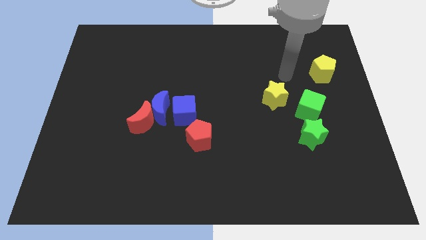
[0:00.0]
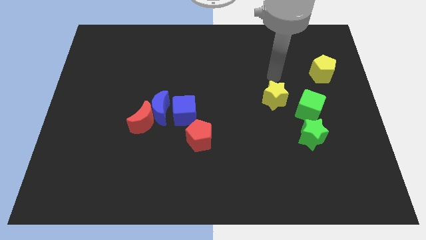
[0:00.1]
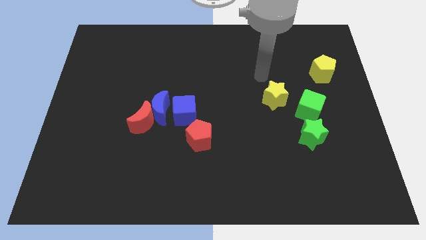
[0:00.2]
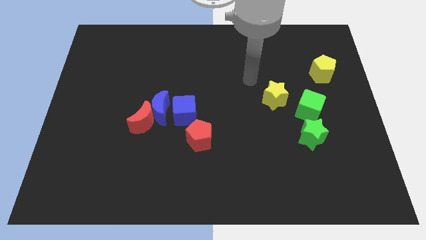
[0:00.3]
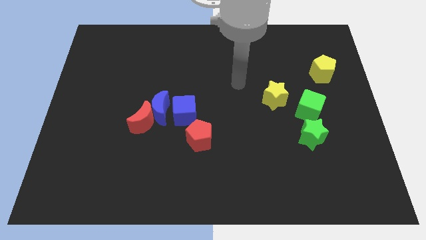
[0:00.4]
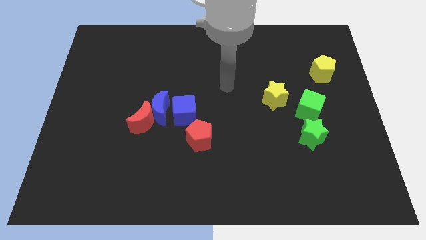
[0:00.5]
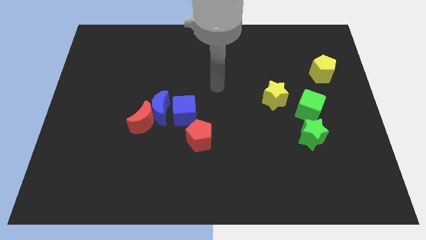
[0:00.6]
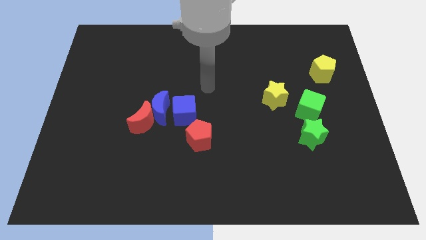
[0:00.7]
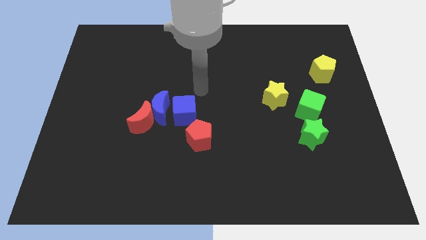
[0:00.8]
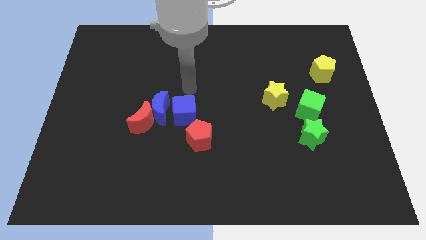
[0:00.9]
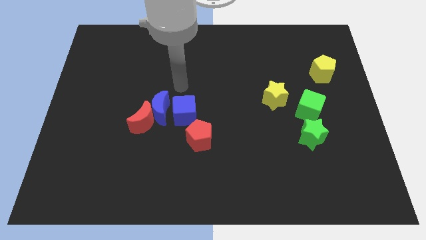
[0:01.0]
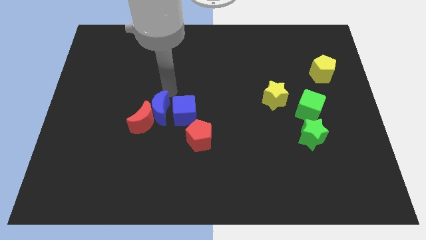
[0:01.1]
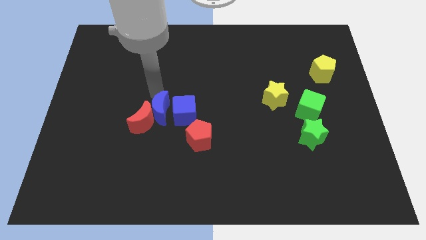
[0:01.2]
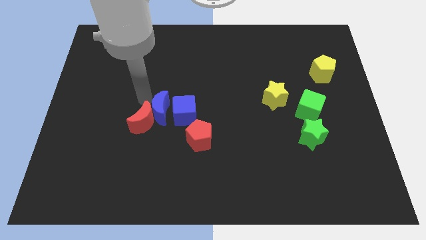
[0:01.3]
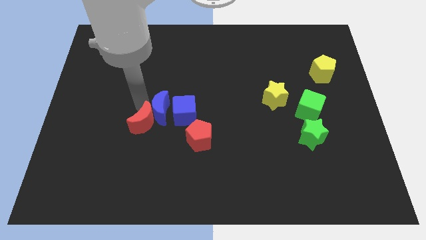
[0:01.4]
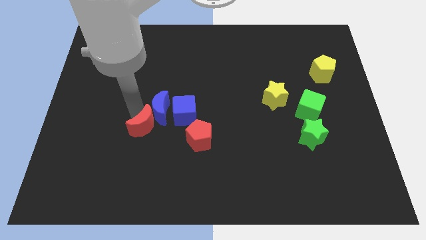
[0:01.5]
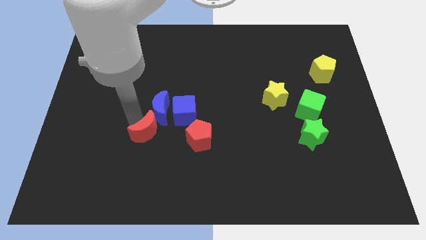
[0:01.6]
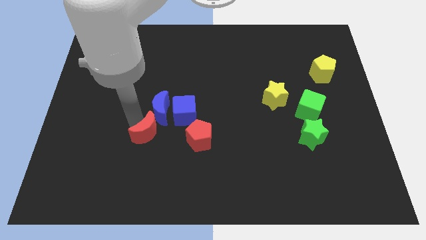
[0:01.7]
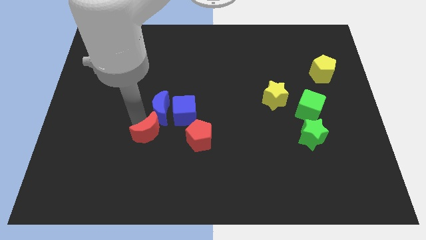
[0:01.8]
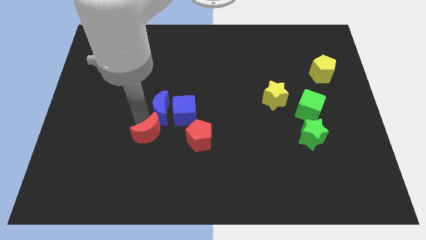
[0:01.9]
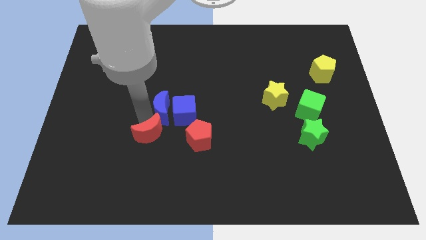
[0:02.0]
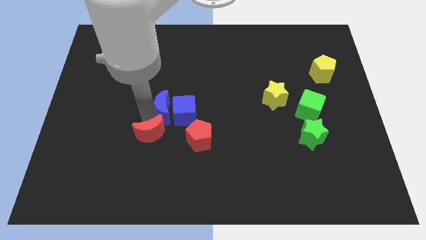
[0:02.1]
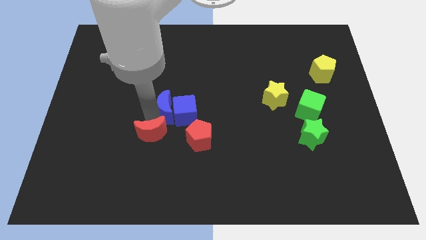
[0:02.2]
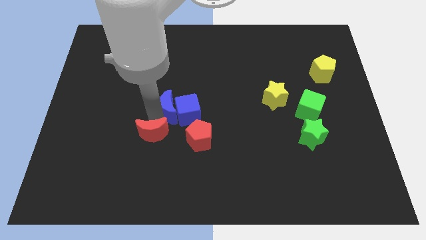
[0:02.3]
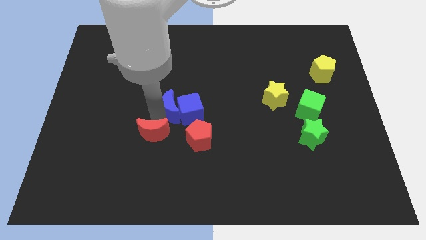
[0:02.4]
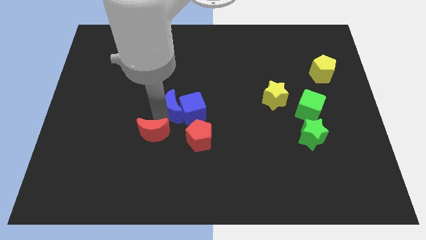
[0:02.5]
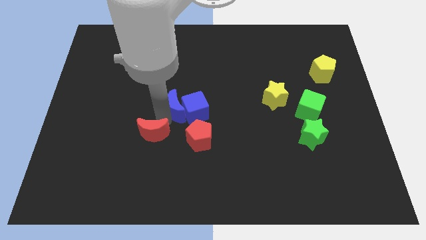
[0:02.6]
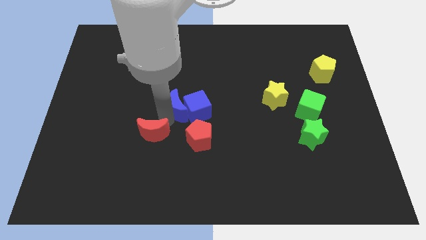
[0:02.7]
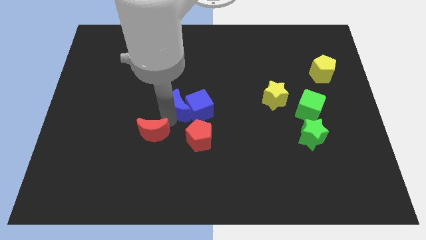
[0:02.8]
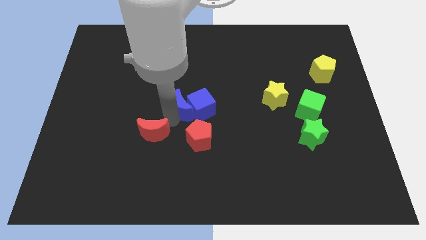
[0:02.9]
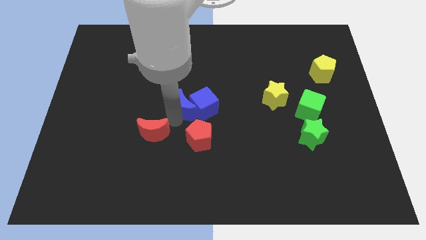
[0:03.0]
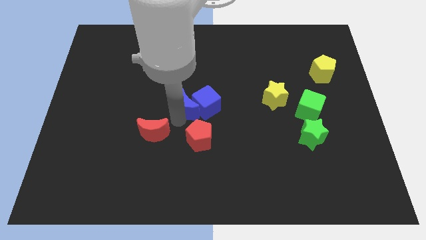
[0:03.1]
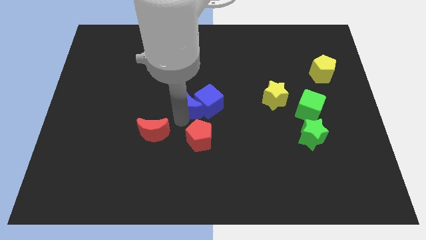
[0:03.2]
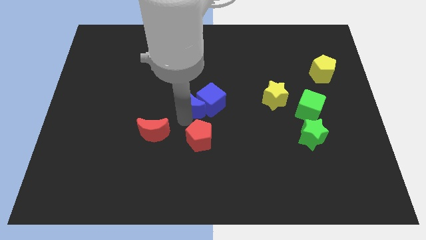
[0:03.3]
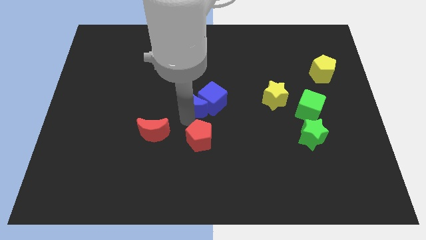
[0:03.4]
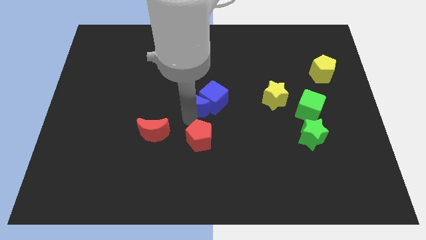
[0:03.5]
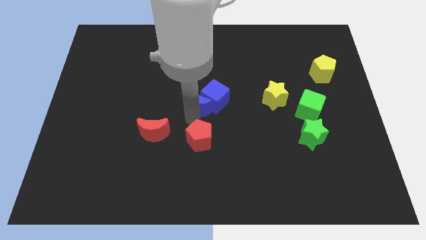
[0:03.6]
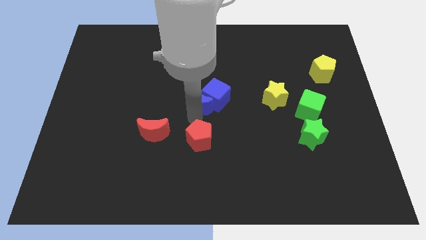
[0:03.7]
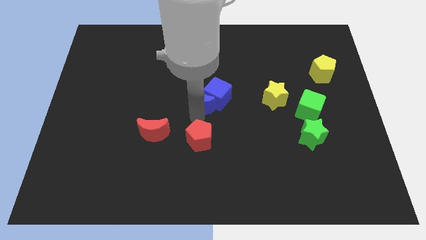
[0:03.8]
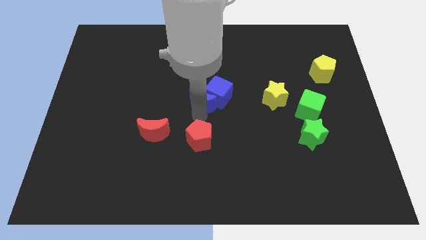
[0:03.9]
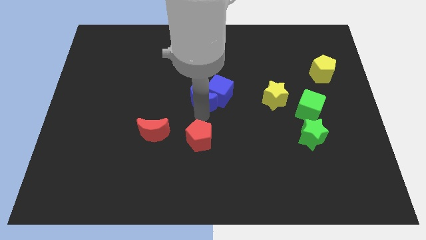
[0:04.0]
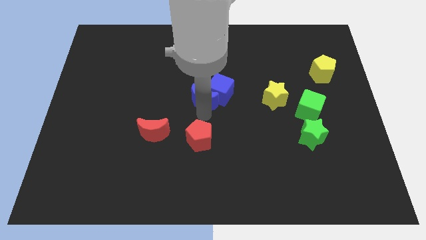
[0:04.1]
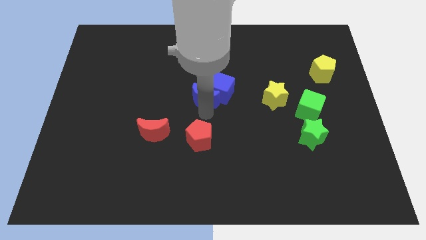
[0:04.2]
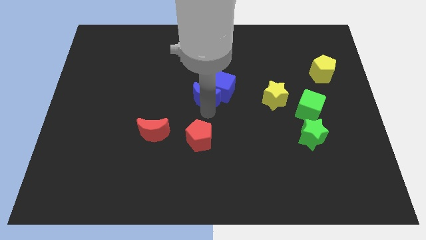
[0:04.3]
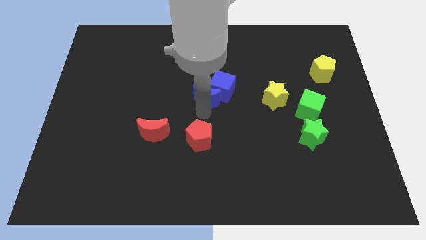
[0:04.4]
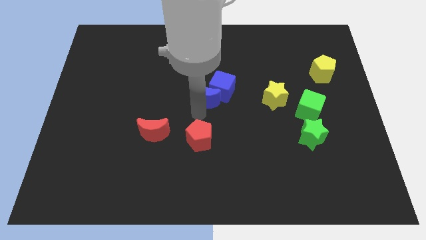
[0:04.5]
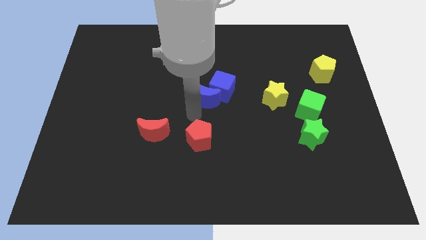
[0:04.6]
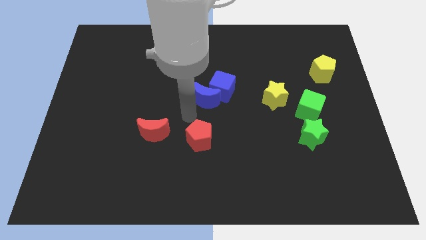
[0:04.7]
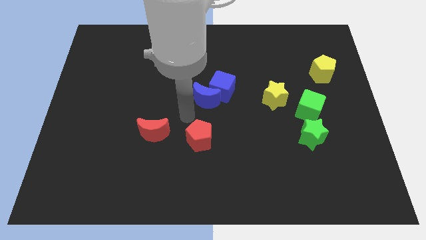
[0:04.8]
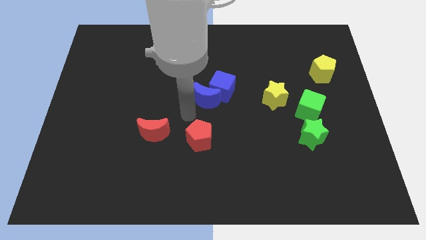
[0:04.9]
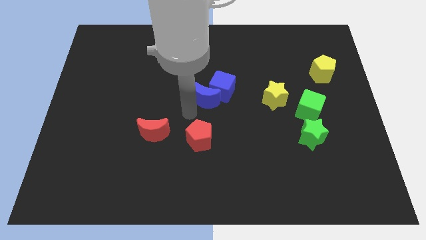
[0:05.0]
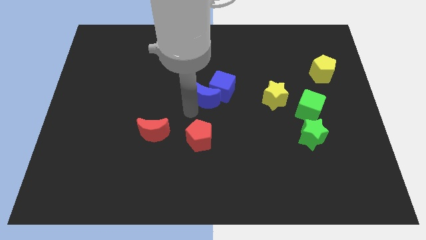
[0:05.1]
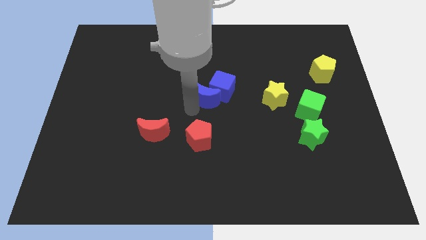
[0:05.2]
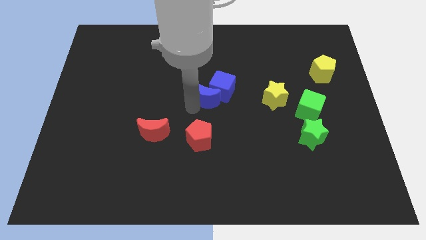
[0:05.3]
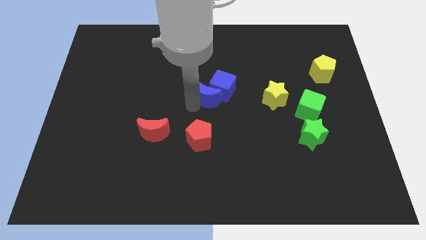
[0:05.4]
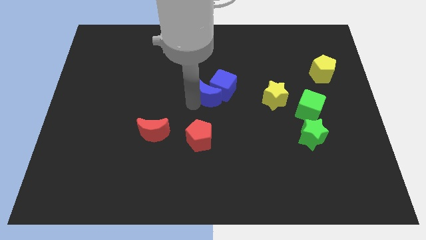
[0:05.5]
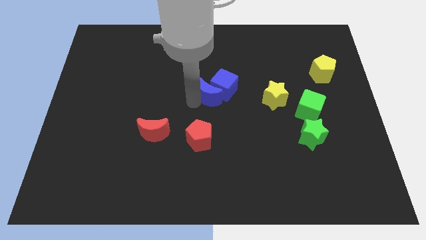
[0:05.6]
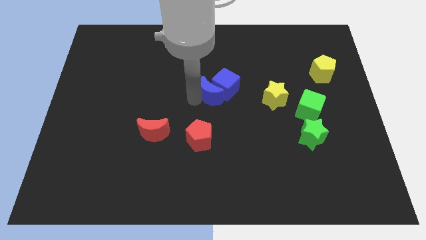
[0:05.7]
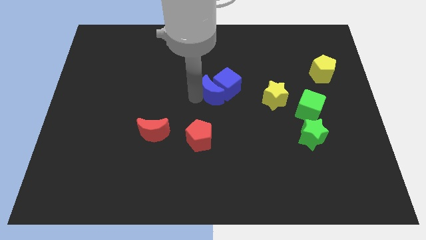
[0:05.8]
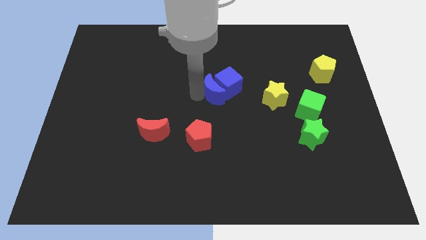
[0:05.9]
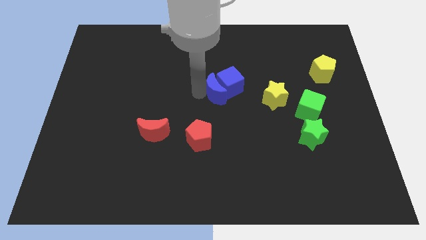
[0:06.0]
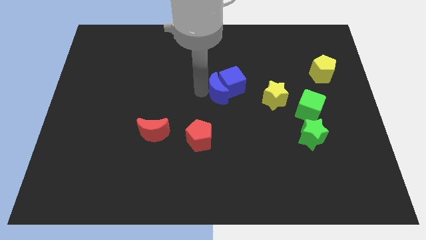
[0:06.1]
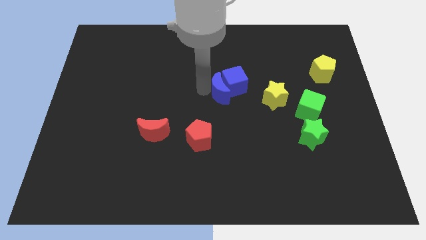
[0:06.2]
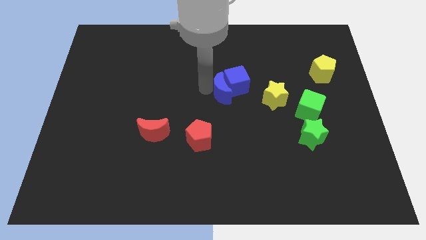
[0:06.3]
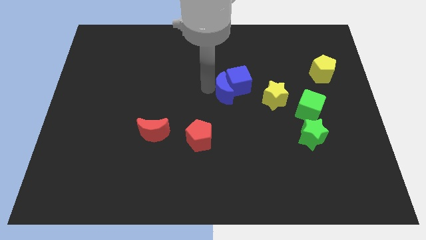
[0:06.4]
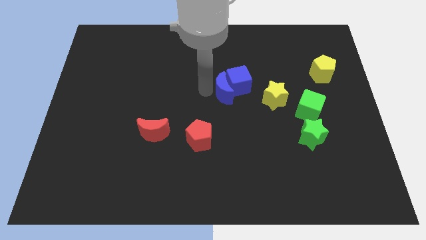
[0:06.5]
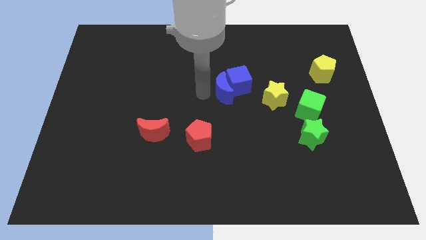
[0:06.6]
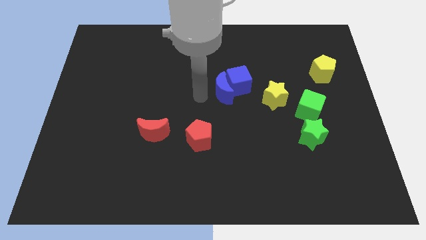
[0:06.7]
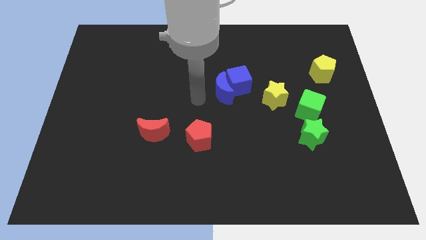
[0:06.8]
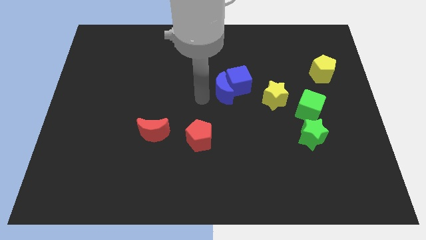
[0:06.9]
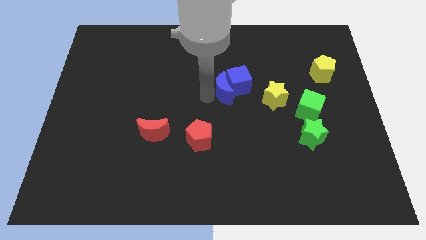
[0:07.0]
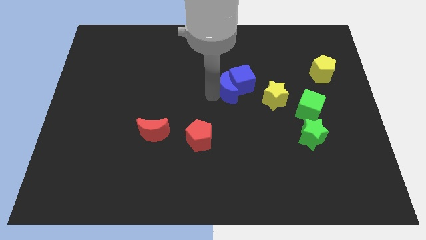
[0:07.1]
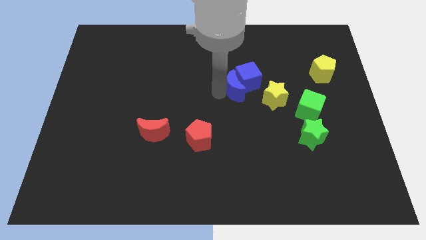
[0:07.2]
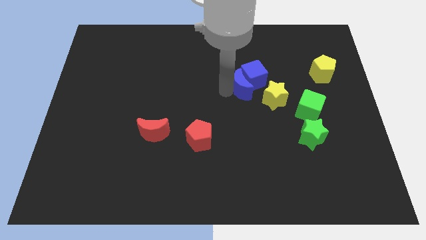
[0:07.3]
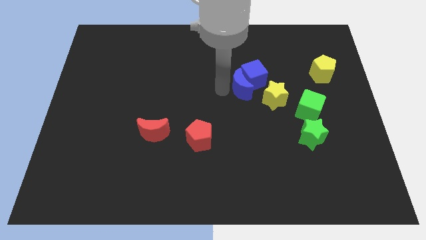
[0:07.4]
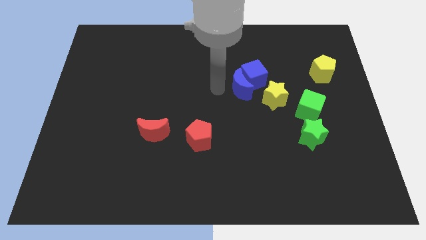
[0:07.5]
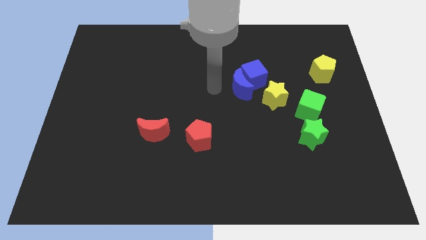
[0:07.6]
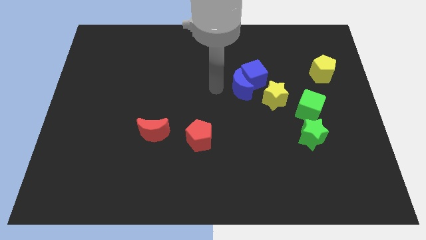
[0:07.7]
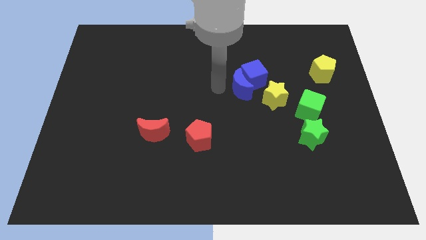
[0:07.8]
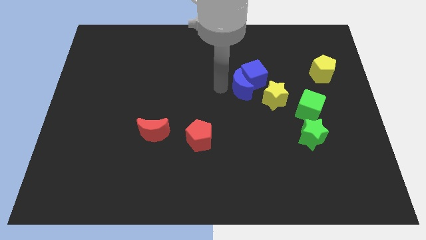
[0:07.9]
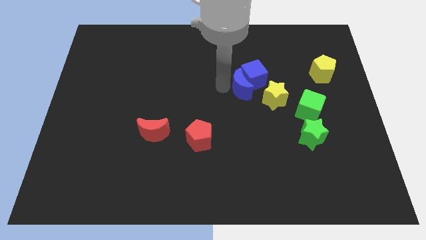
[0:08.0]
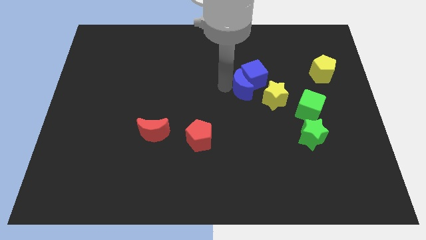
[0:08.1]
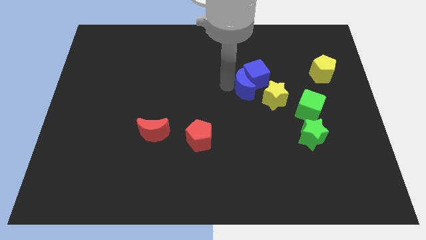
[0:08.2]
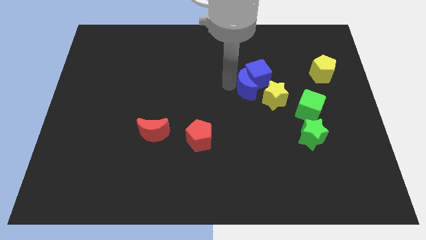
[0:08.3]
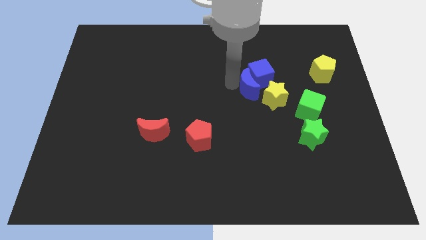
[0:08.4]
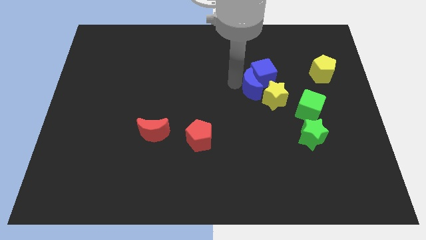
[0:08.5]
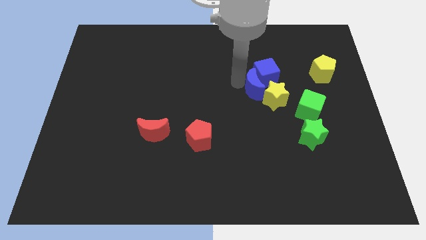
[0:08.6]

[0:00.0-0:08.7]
move the blue moon close to the yellow star
